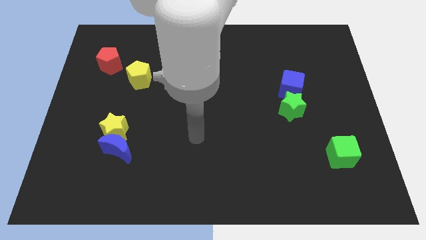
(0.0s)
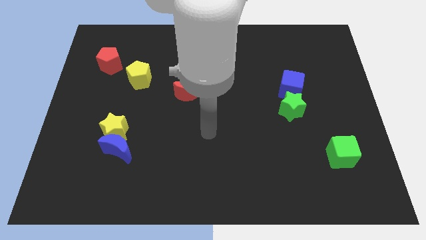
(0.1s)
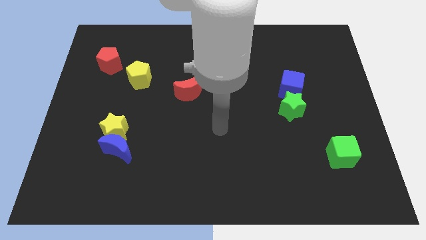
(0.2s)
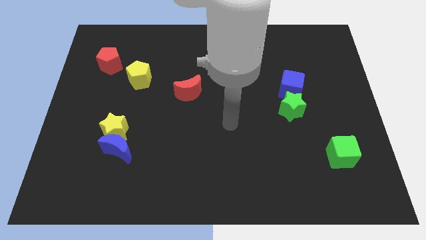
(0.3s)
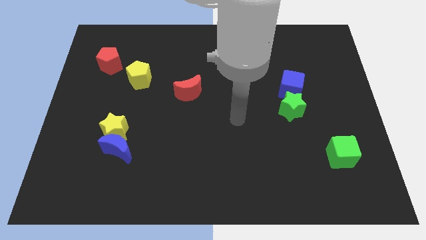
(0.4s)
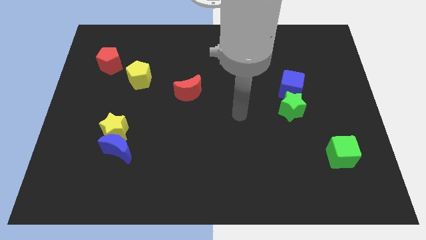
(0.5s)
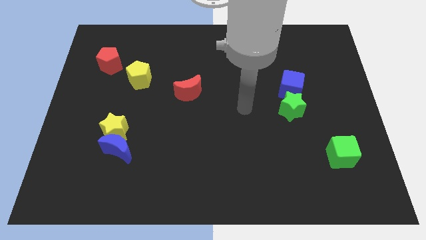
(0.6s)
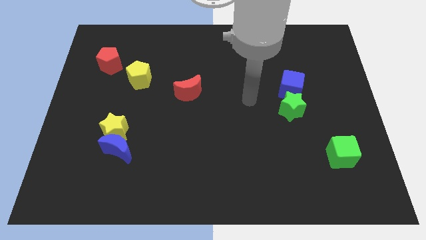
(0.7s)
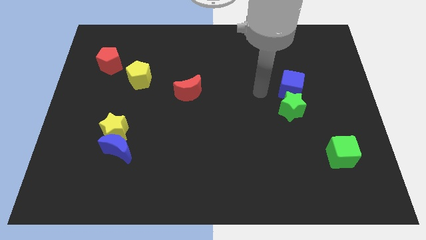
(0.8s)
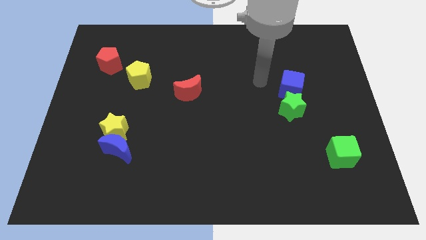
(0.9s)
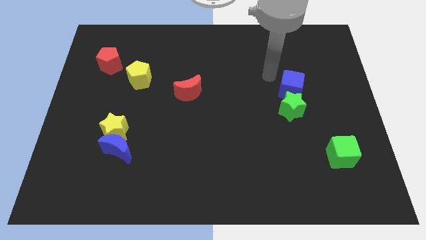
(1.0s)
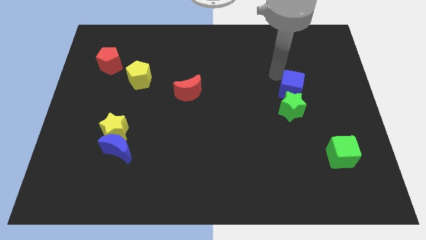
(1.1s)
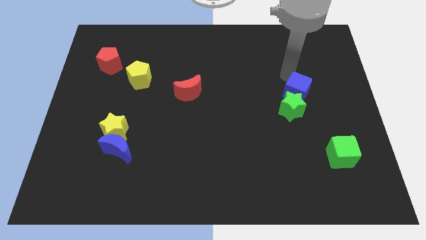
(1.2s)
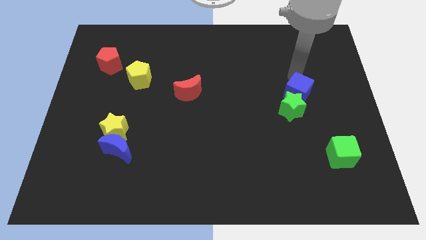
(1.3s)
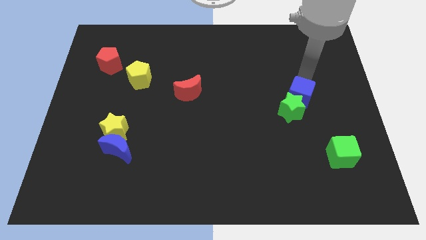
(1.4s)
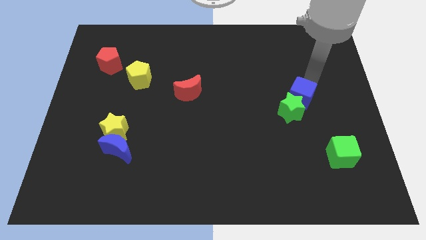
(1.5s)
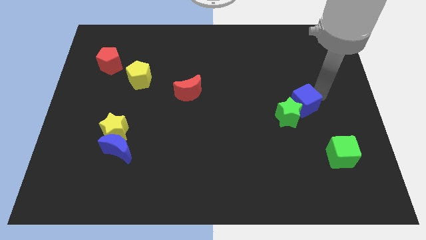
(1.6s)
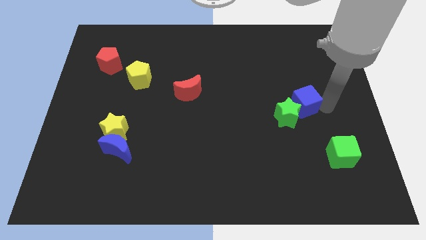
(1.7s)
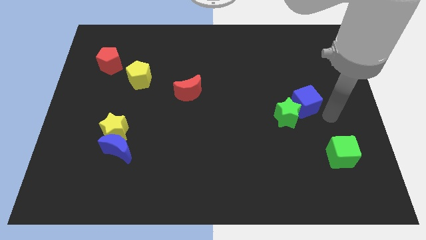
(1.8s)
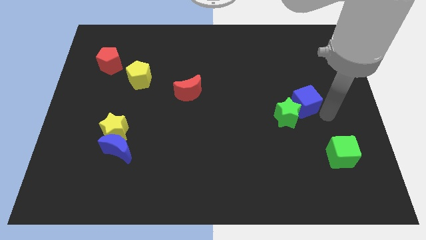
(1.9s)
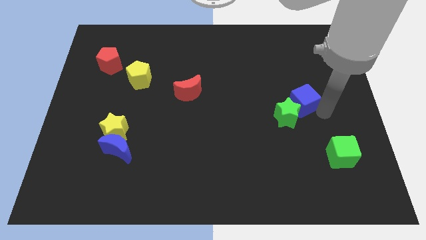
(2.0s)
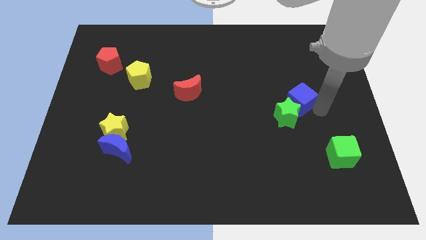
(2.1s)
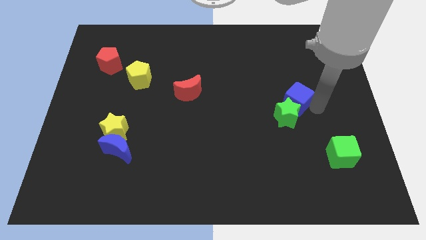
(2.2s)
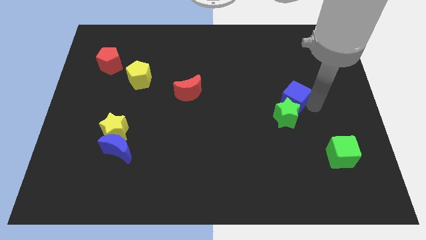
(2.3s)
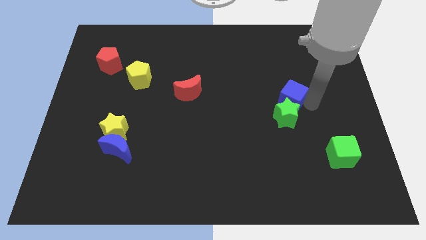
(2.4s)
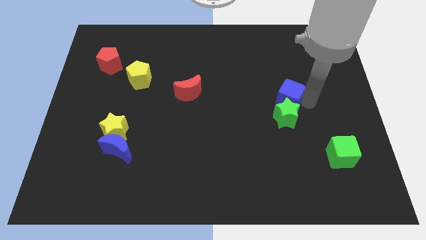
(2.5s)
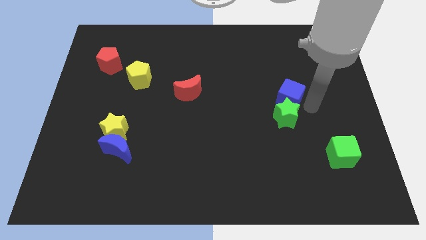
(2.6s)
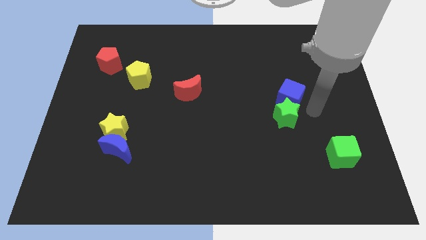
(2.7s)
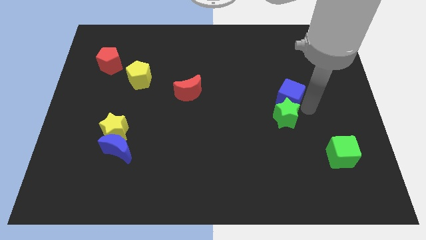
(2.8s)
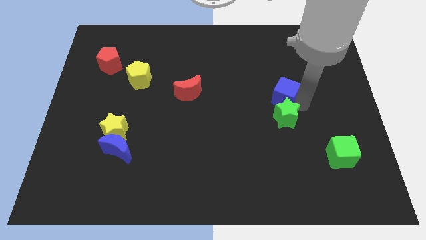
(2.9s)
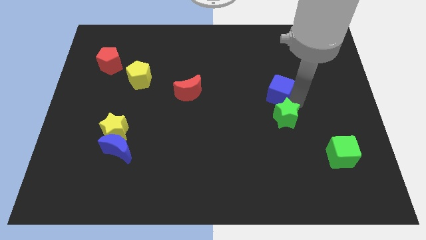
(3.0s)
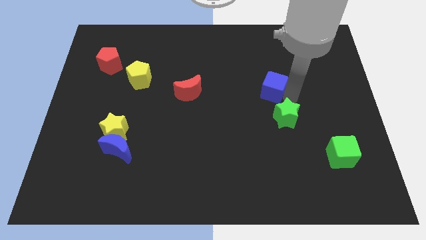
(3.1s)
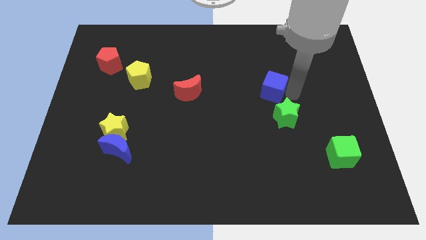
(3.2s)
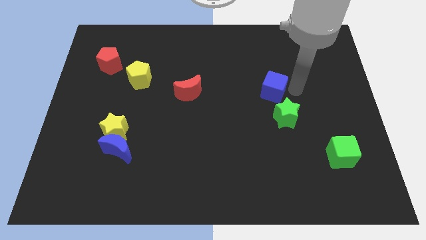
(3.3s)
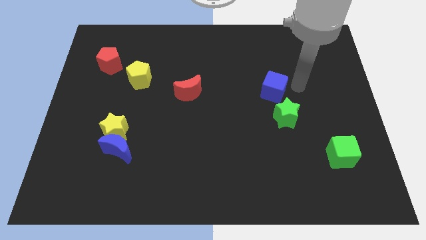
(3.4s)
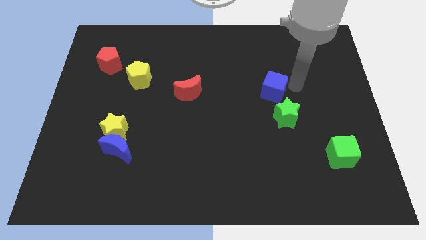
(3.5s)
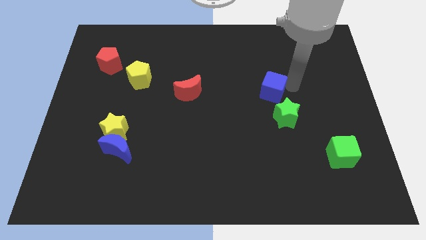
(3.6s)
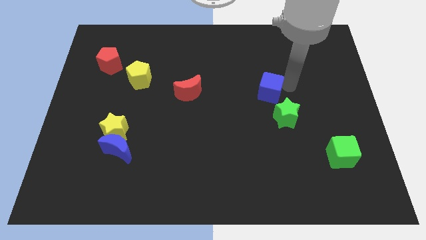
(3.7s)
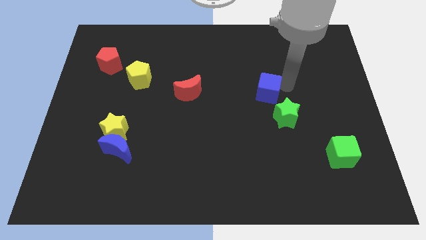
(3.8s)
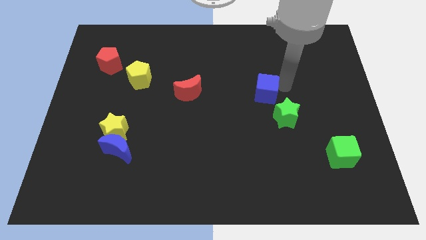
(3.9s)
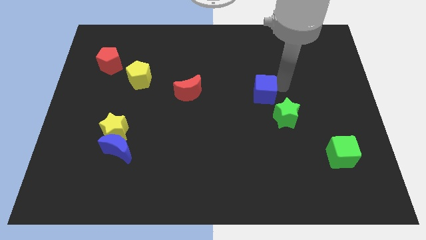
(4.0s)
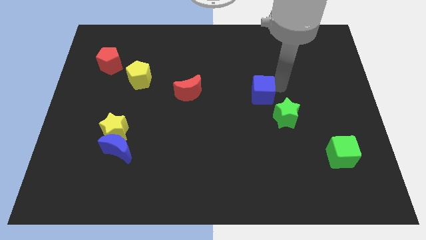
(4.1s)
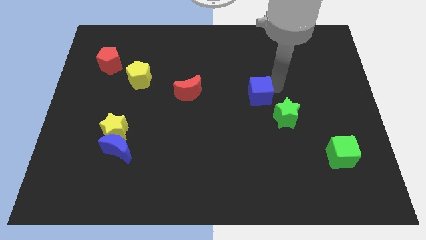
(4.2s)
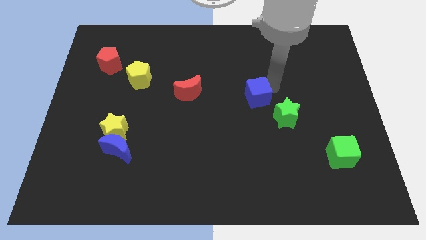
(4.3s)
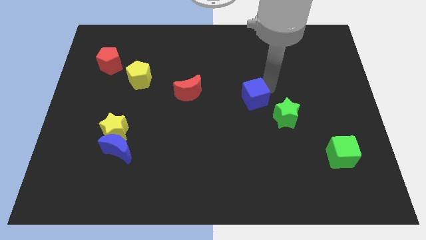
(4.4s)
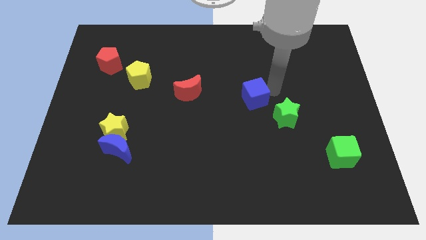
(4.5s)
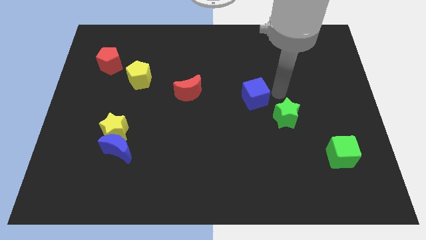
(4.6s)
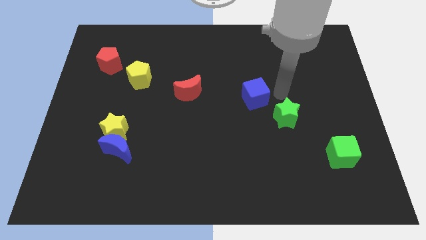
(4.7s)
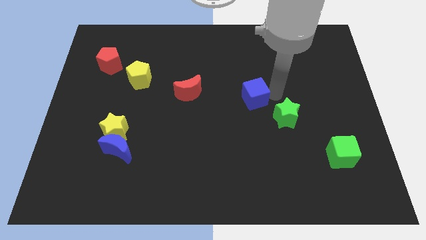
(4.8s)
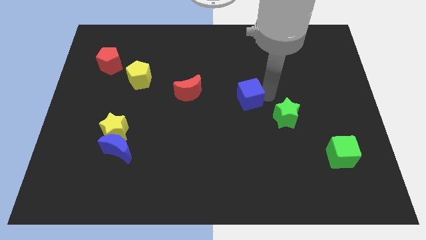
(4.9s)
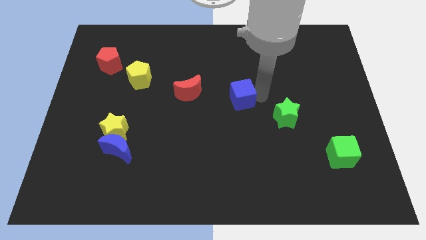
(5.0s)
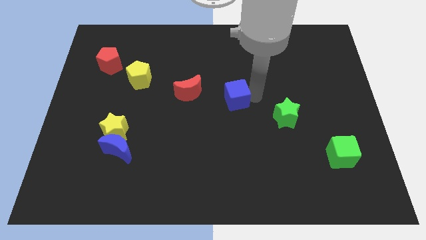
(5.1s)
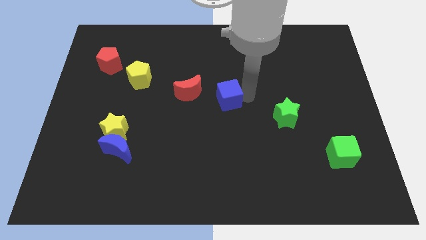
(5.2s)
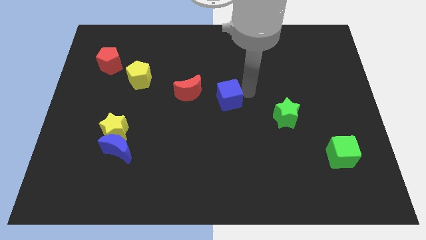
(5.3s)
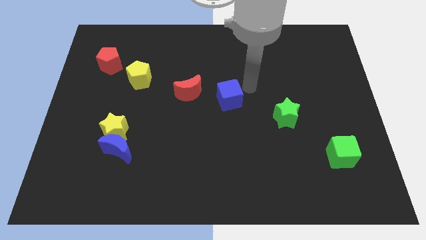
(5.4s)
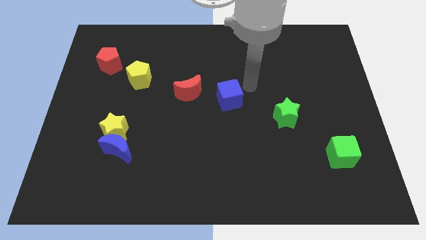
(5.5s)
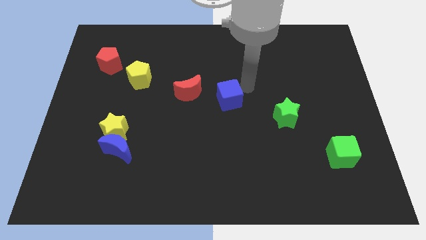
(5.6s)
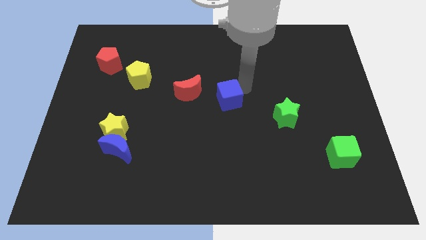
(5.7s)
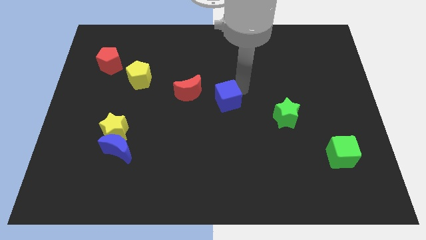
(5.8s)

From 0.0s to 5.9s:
move the blue cube diagonally down and to the right of the red moon

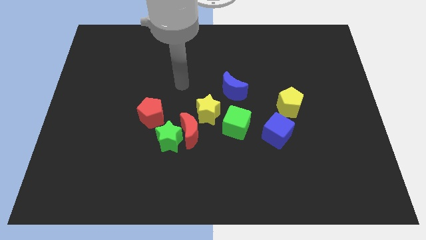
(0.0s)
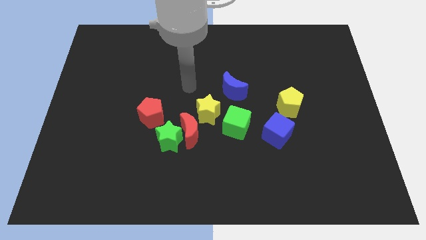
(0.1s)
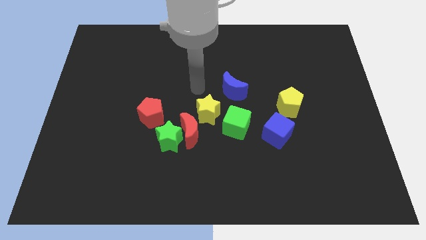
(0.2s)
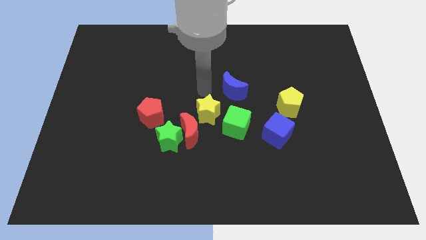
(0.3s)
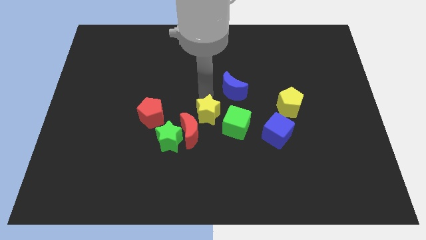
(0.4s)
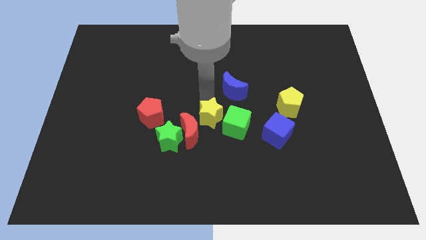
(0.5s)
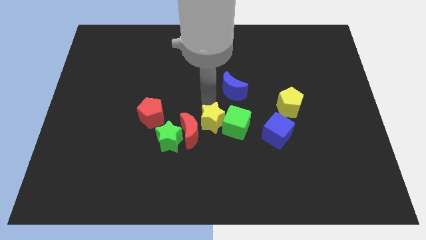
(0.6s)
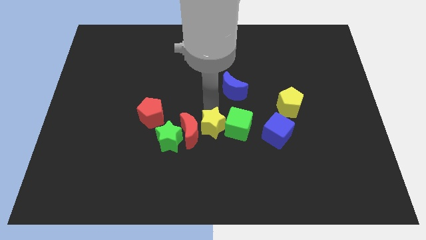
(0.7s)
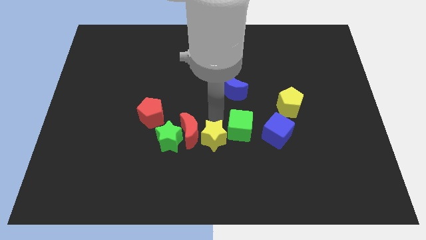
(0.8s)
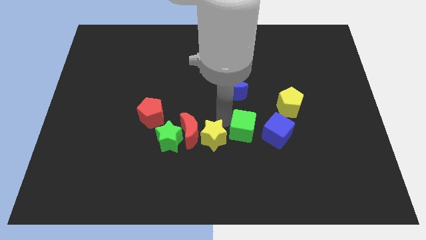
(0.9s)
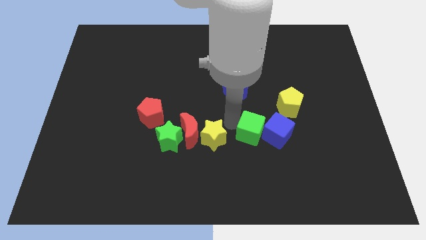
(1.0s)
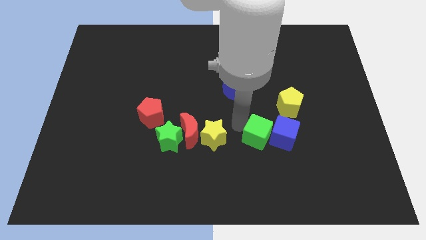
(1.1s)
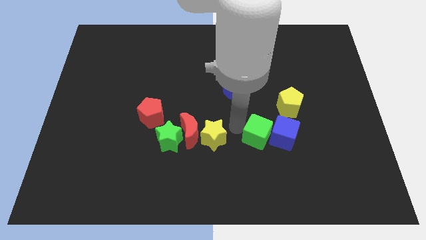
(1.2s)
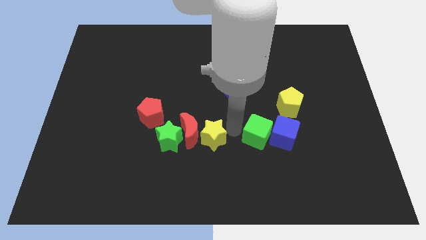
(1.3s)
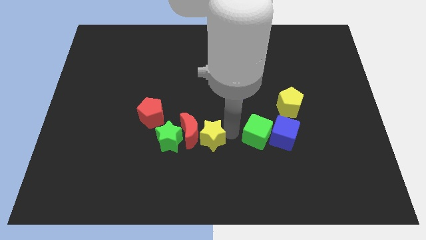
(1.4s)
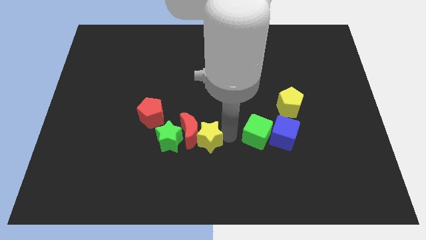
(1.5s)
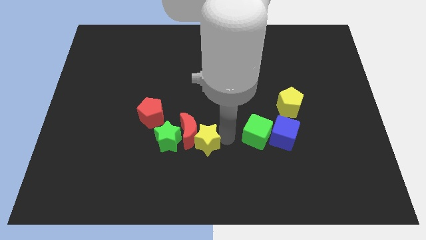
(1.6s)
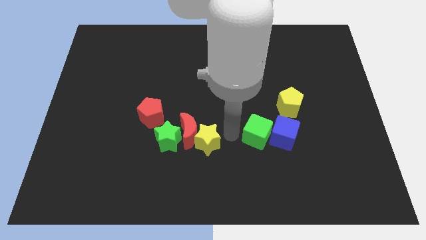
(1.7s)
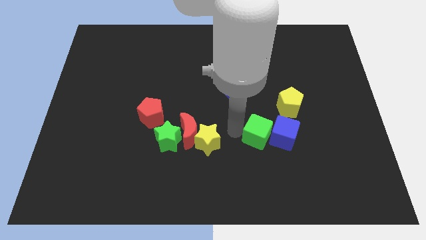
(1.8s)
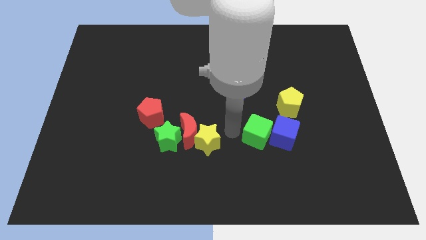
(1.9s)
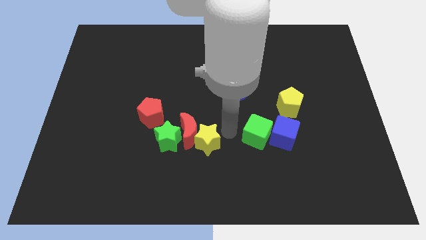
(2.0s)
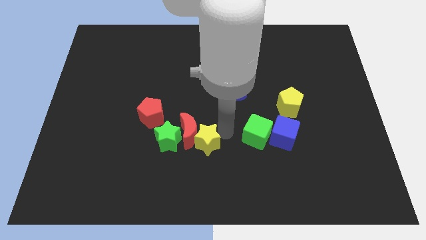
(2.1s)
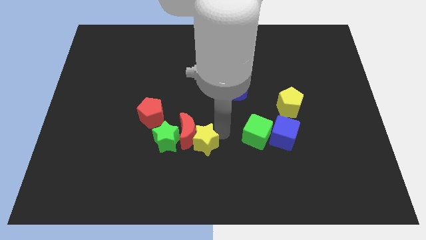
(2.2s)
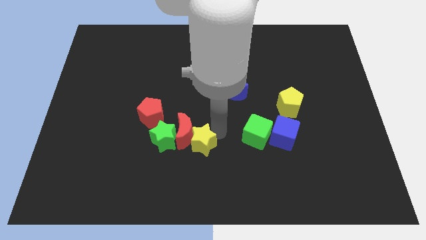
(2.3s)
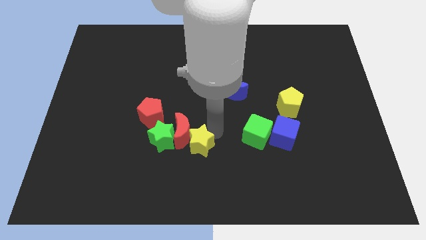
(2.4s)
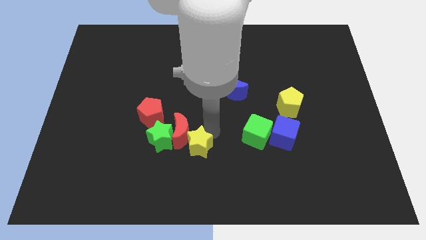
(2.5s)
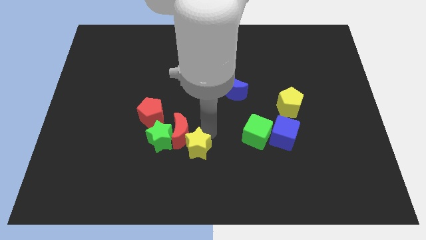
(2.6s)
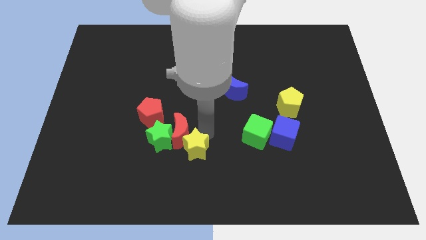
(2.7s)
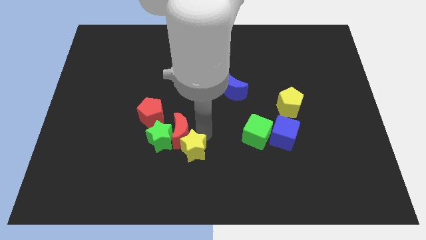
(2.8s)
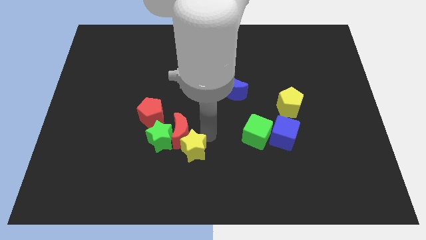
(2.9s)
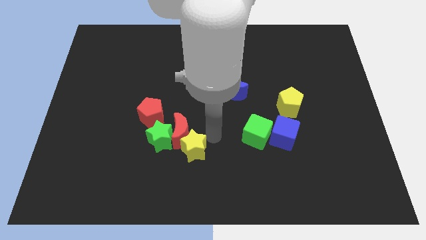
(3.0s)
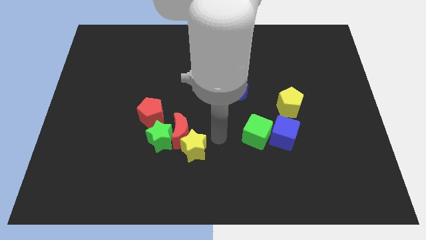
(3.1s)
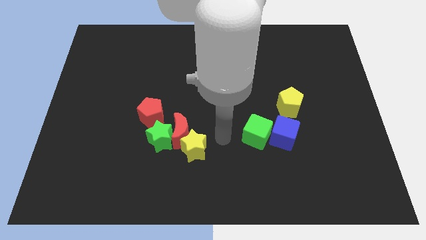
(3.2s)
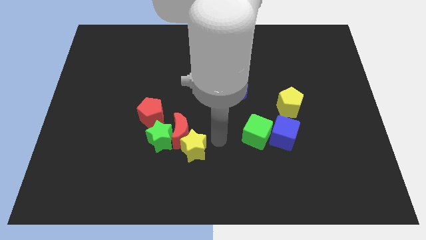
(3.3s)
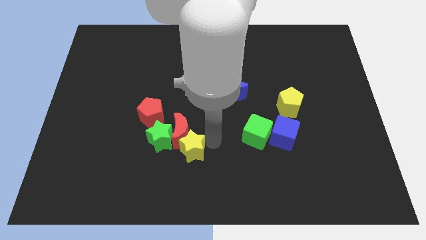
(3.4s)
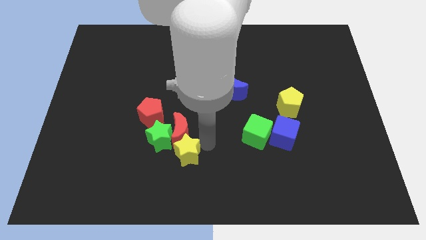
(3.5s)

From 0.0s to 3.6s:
put the yellow star to the bottom left of the red moon
